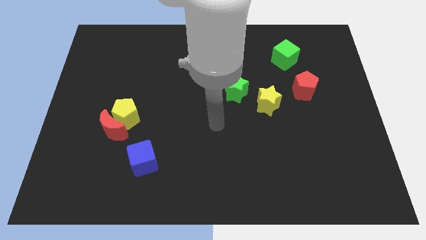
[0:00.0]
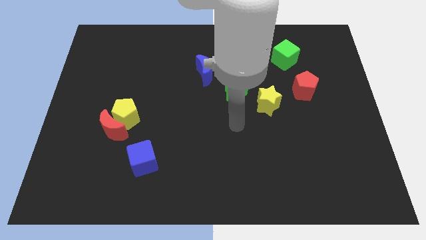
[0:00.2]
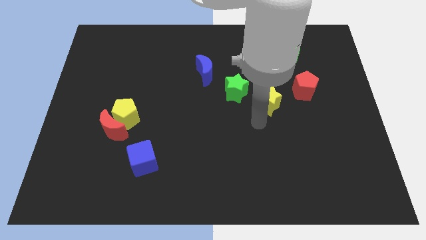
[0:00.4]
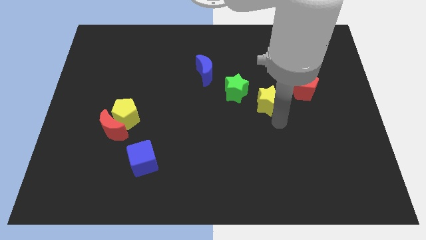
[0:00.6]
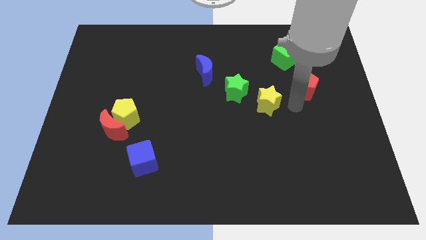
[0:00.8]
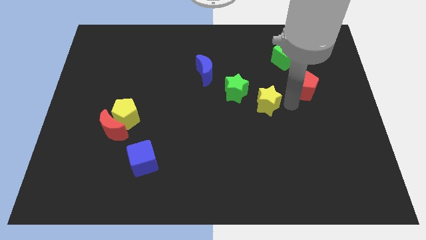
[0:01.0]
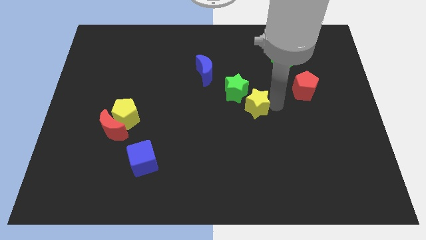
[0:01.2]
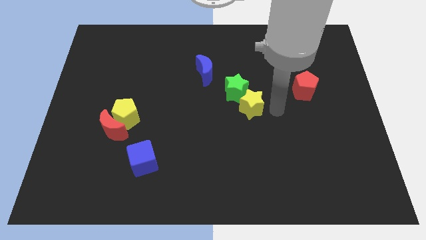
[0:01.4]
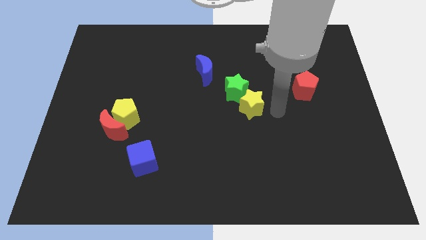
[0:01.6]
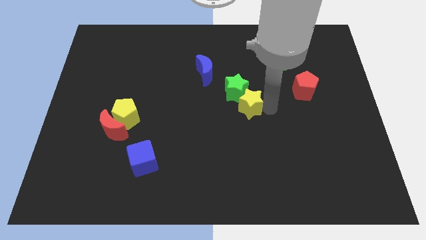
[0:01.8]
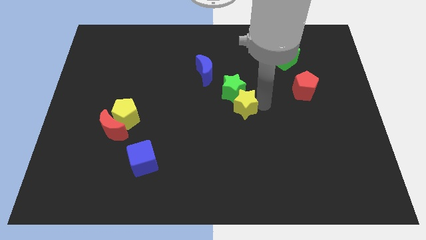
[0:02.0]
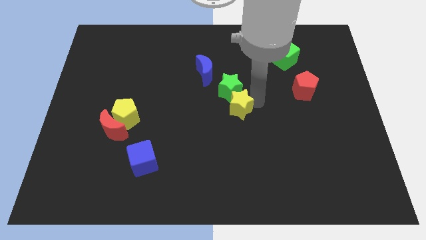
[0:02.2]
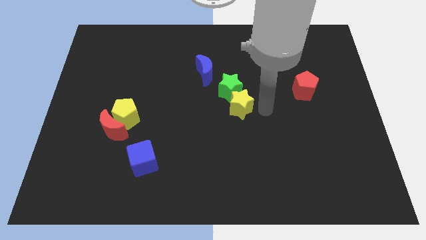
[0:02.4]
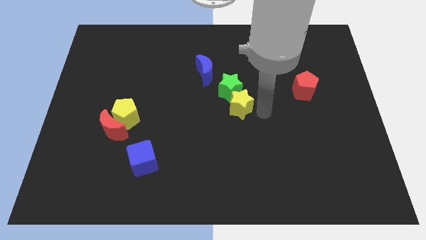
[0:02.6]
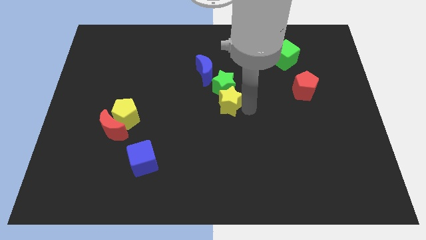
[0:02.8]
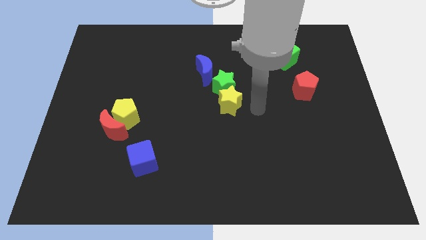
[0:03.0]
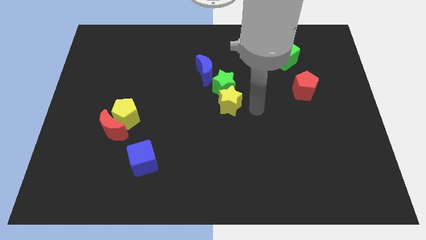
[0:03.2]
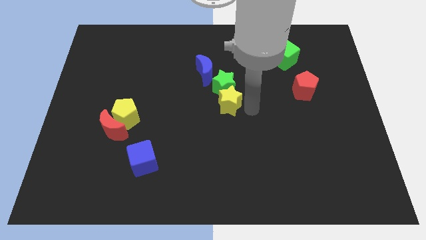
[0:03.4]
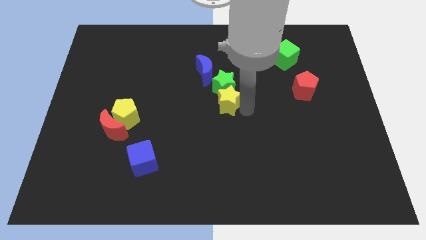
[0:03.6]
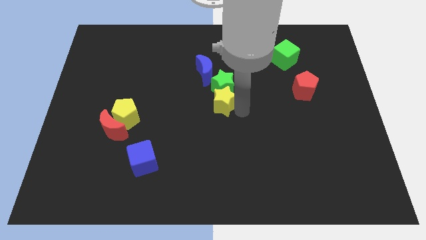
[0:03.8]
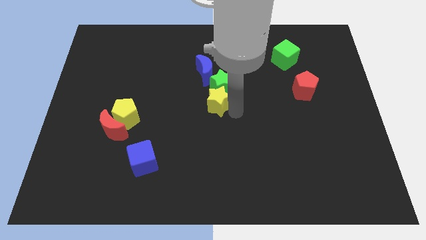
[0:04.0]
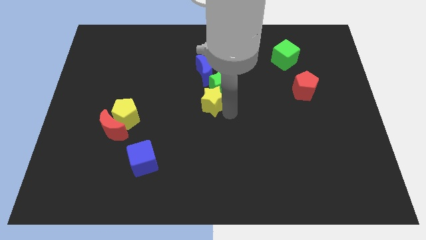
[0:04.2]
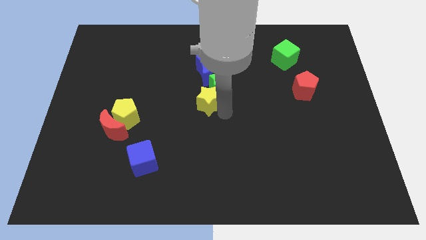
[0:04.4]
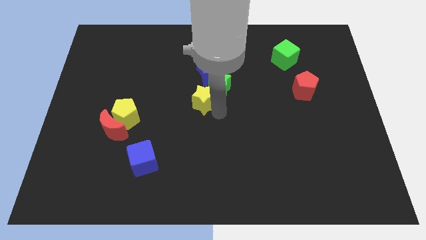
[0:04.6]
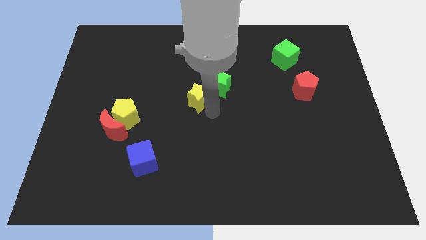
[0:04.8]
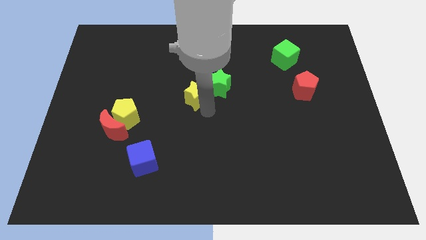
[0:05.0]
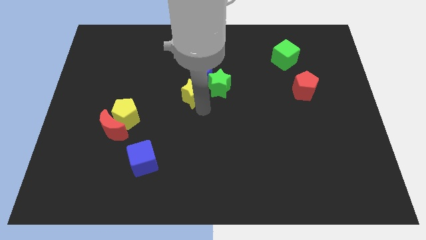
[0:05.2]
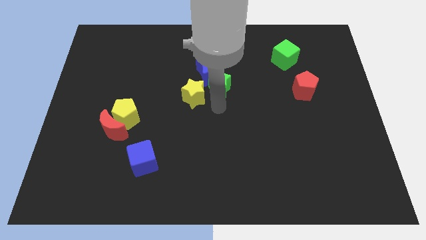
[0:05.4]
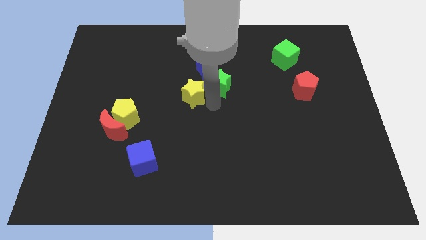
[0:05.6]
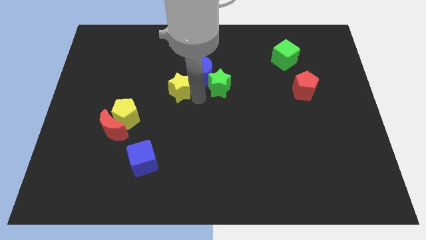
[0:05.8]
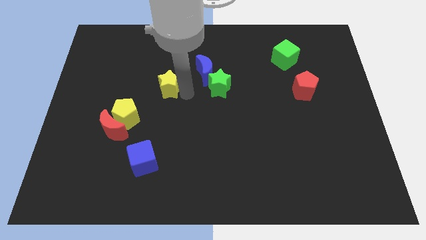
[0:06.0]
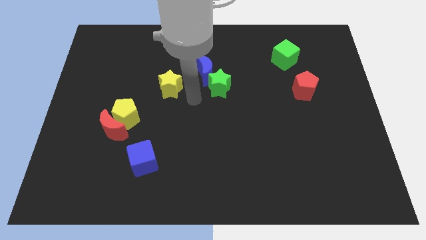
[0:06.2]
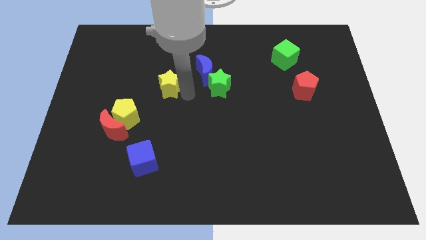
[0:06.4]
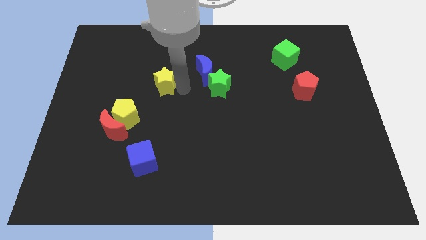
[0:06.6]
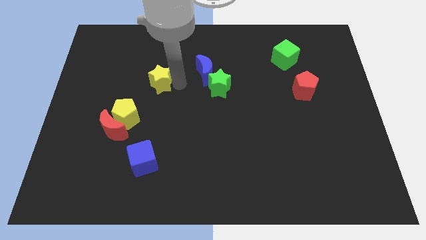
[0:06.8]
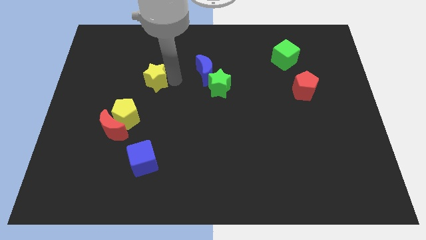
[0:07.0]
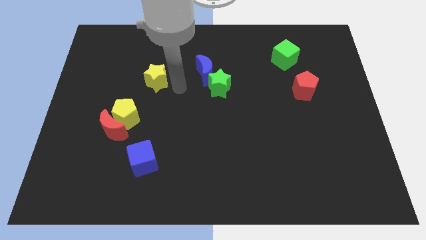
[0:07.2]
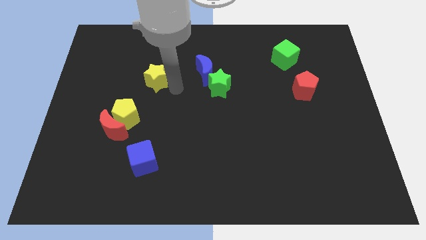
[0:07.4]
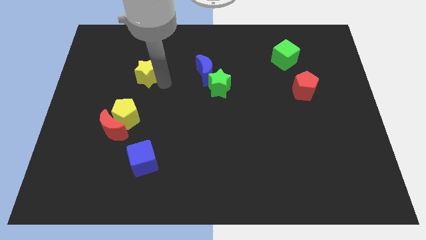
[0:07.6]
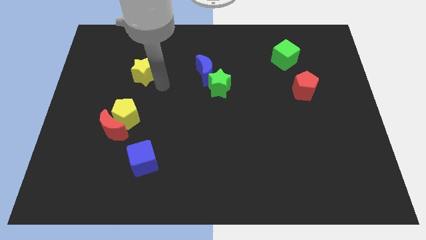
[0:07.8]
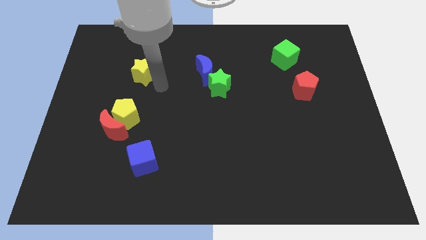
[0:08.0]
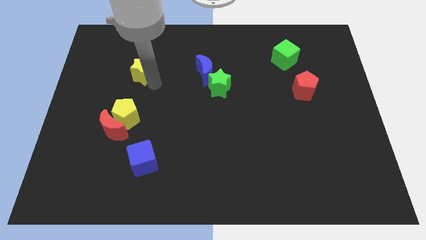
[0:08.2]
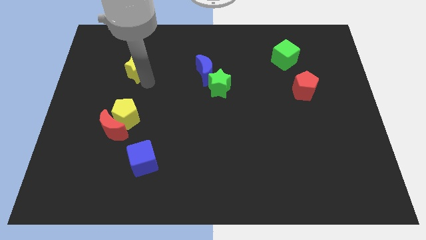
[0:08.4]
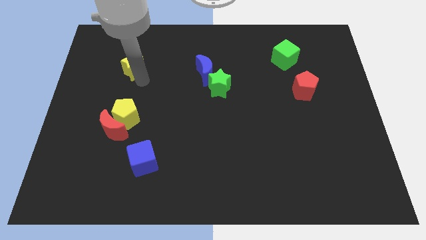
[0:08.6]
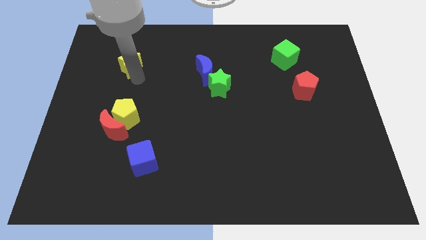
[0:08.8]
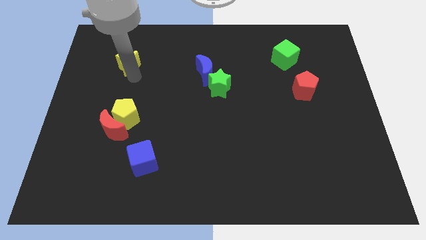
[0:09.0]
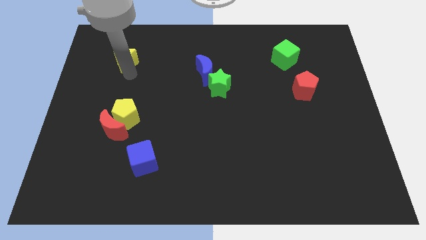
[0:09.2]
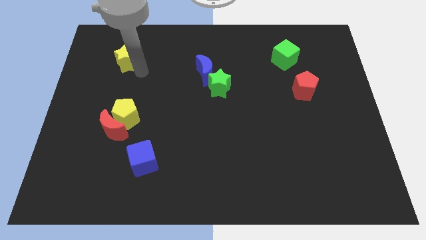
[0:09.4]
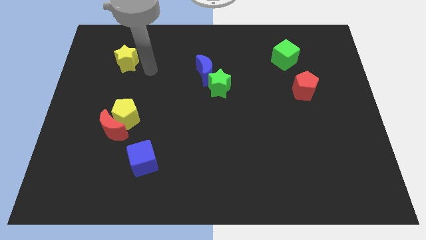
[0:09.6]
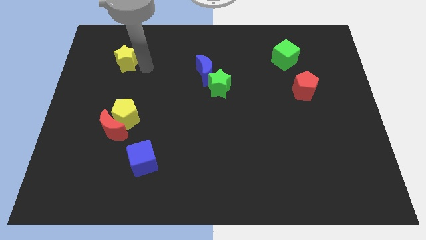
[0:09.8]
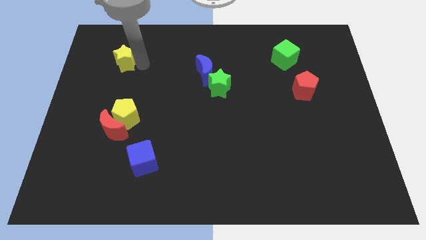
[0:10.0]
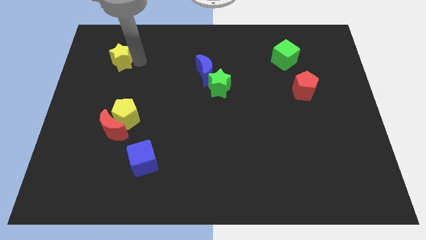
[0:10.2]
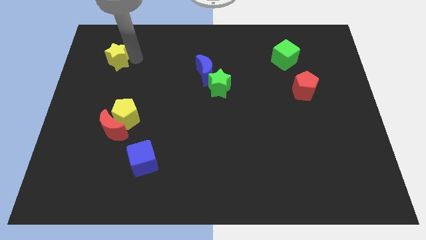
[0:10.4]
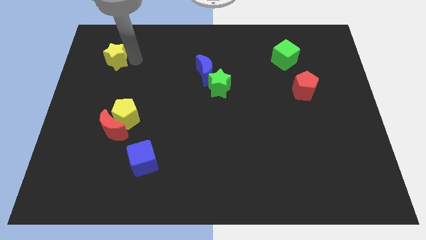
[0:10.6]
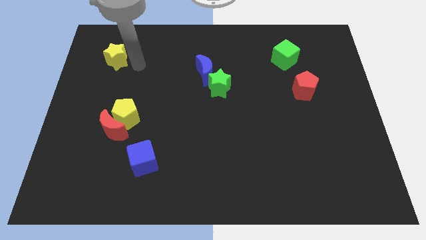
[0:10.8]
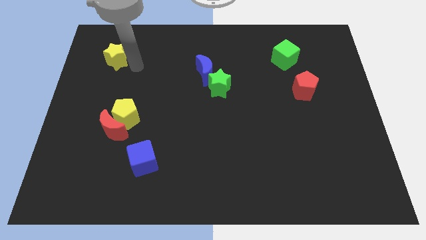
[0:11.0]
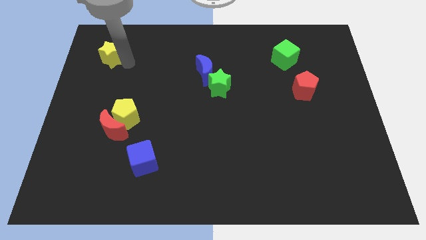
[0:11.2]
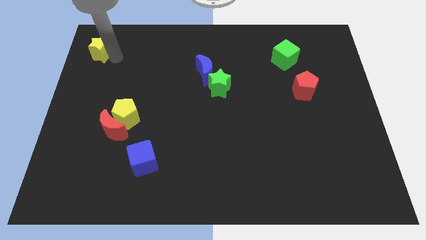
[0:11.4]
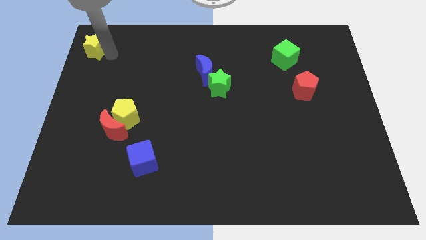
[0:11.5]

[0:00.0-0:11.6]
move the yellow star to the upper left corner

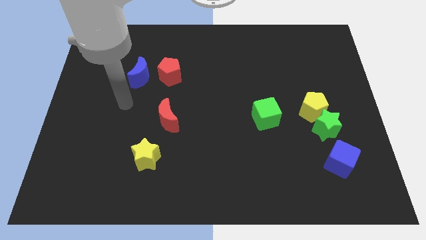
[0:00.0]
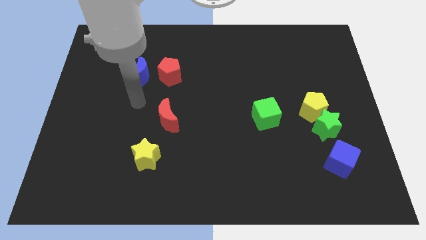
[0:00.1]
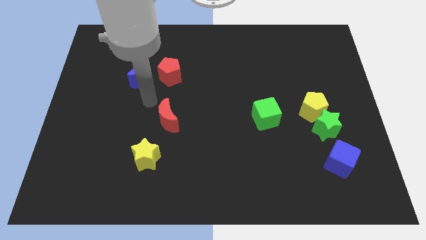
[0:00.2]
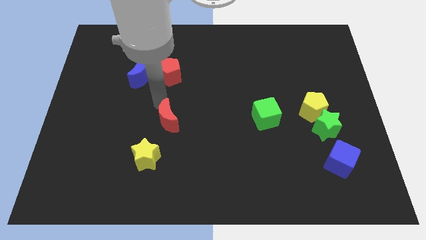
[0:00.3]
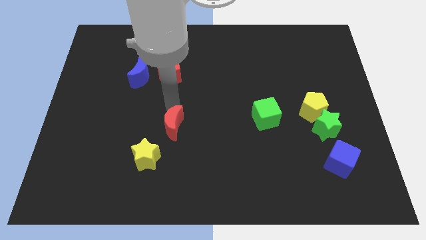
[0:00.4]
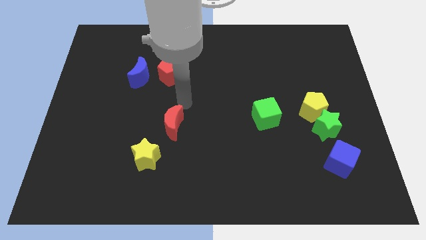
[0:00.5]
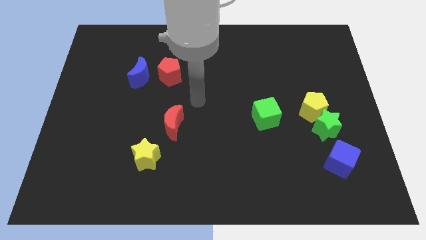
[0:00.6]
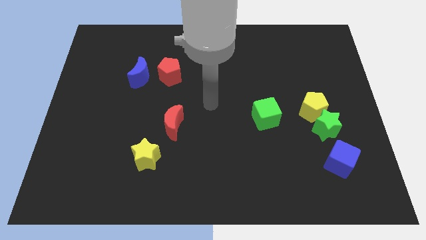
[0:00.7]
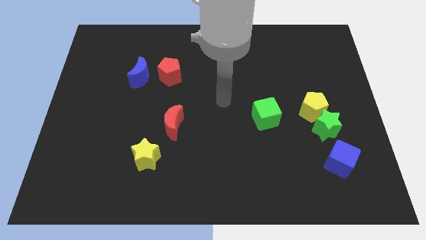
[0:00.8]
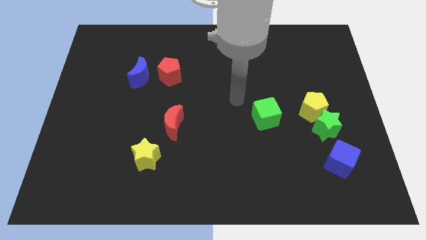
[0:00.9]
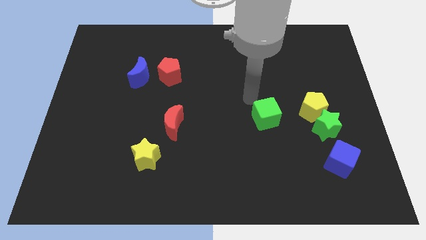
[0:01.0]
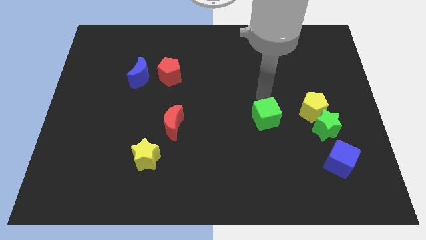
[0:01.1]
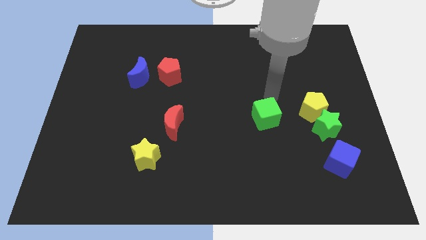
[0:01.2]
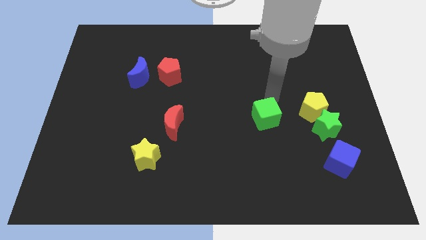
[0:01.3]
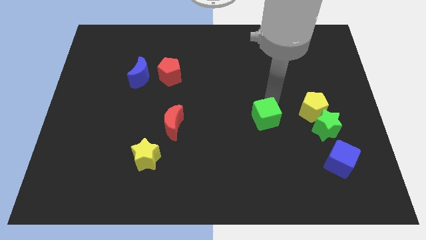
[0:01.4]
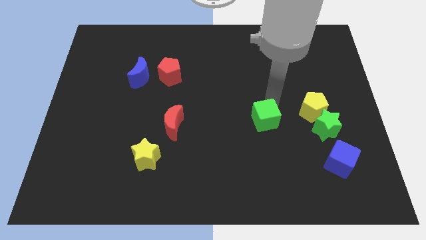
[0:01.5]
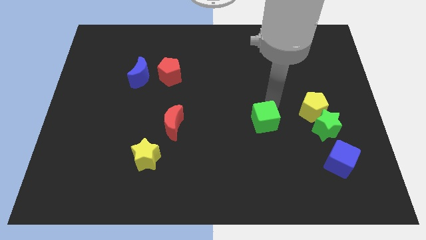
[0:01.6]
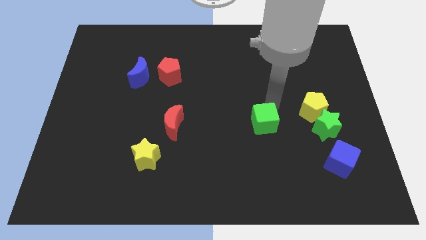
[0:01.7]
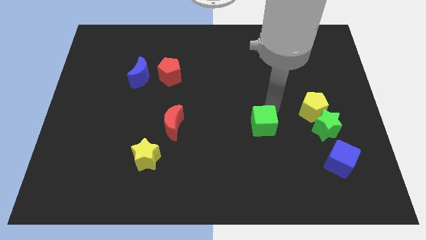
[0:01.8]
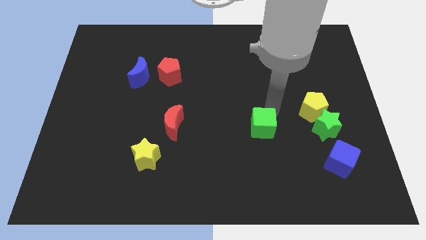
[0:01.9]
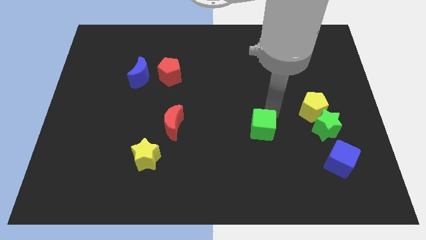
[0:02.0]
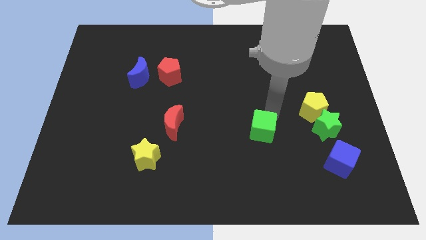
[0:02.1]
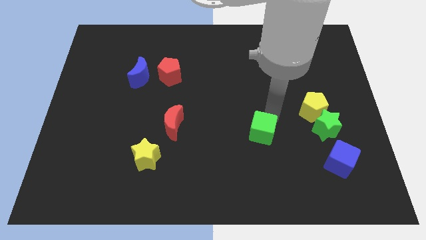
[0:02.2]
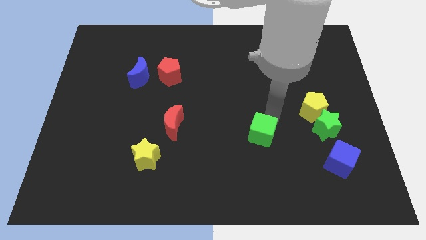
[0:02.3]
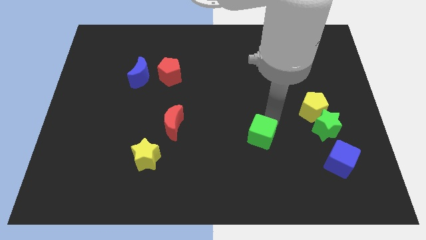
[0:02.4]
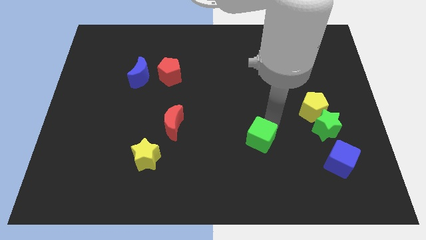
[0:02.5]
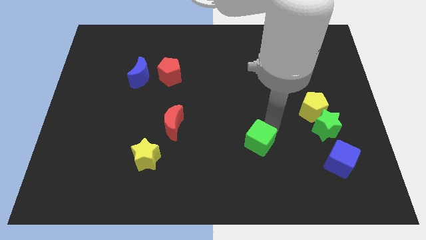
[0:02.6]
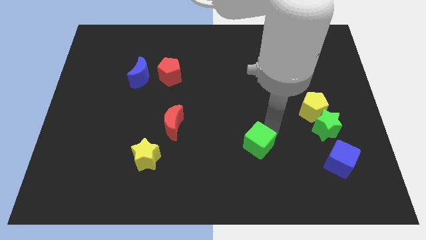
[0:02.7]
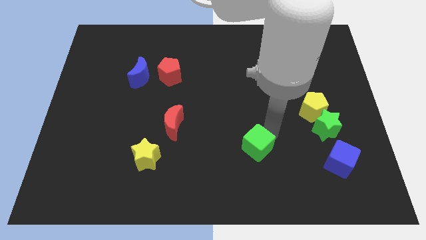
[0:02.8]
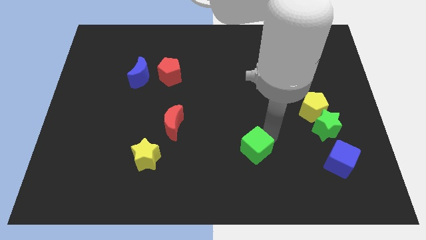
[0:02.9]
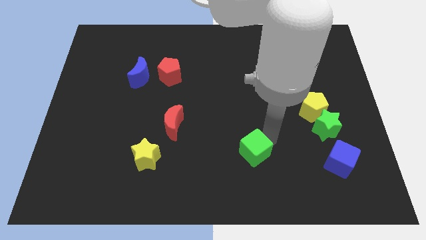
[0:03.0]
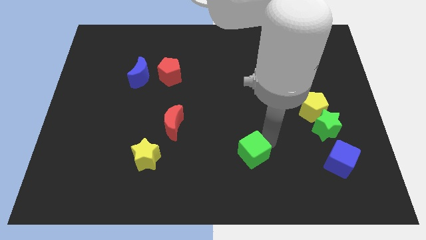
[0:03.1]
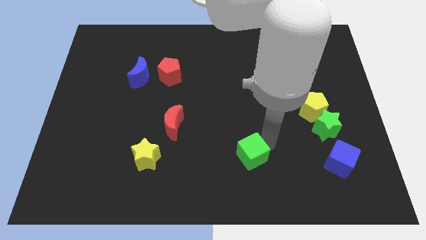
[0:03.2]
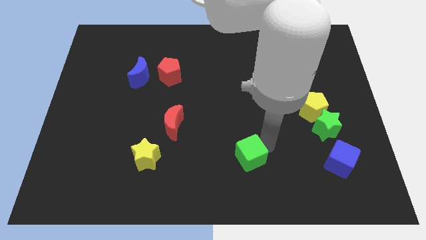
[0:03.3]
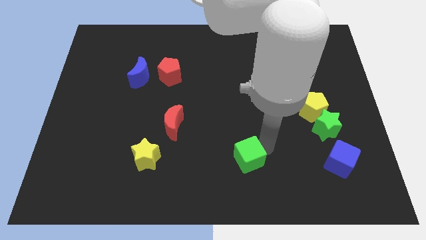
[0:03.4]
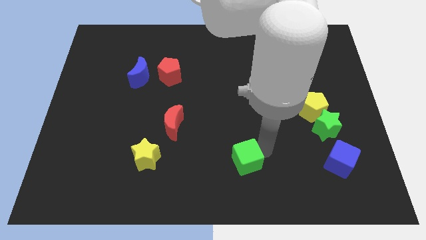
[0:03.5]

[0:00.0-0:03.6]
push the green cube to the bottom side
